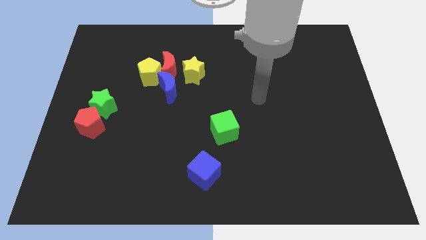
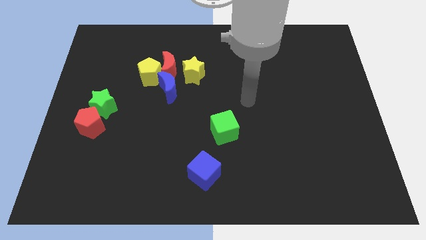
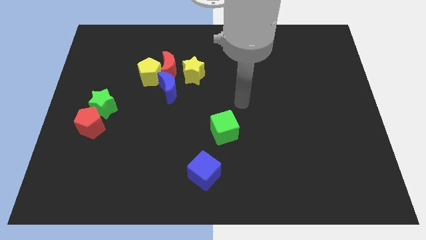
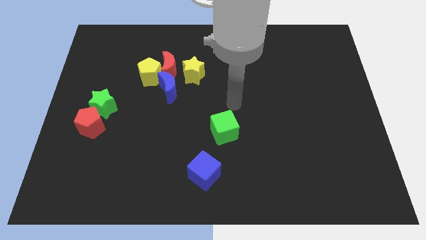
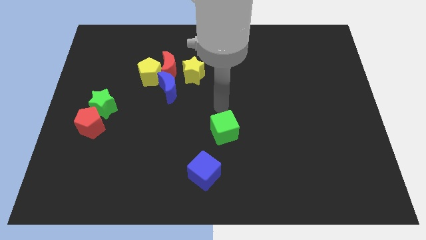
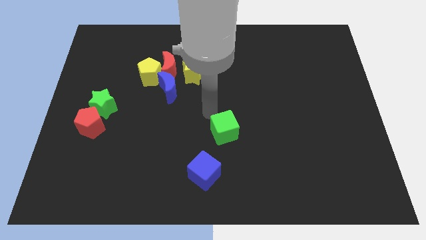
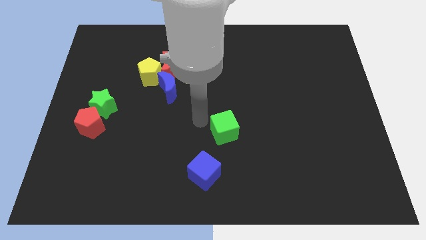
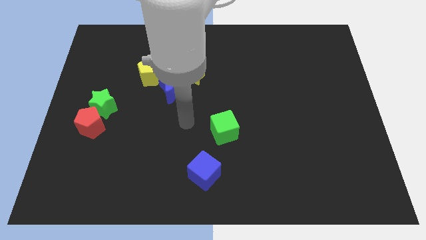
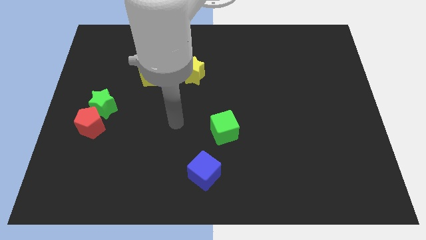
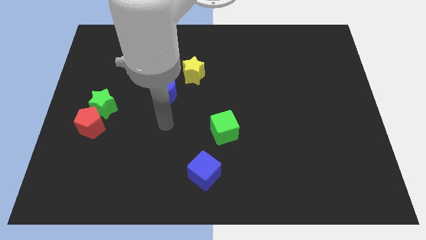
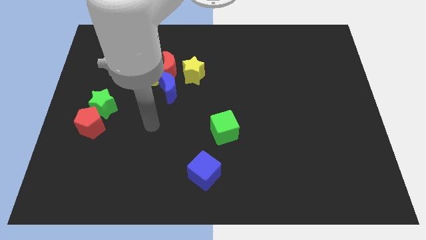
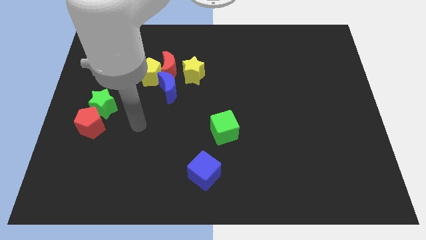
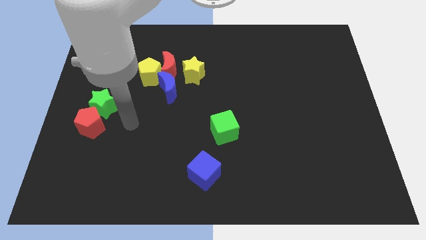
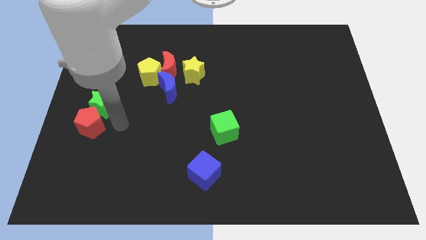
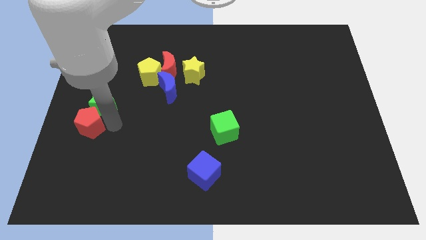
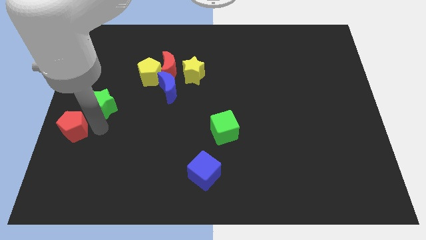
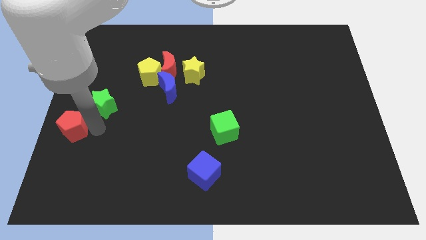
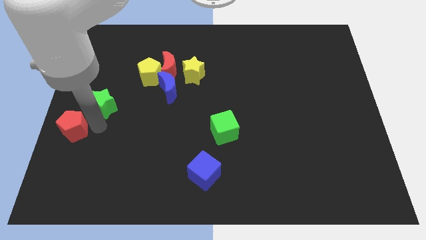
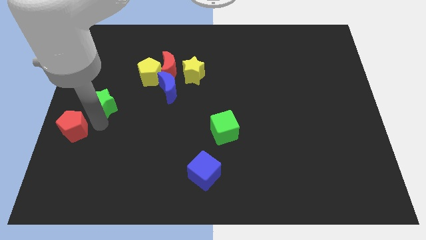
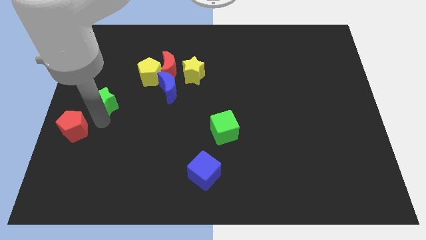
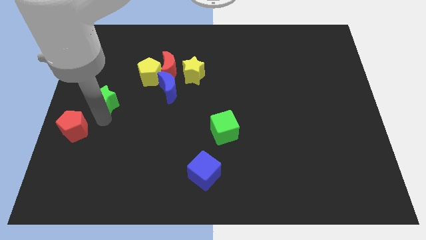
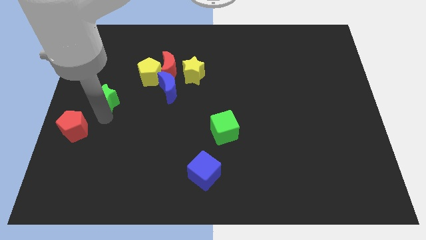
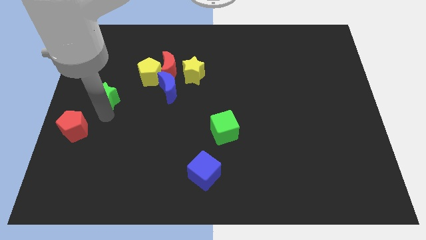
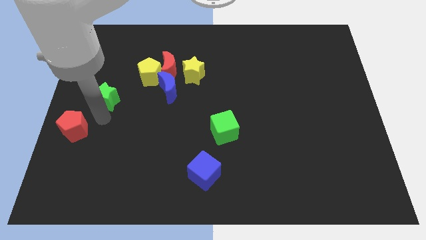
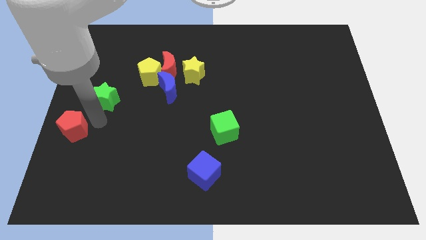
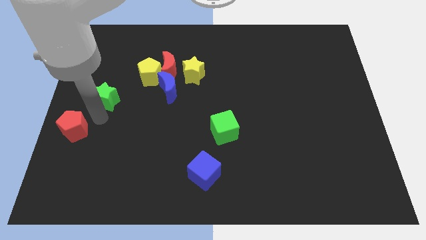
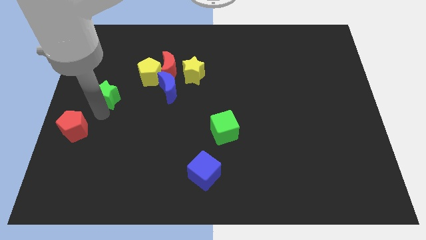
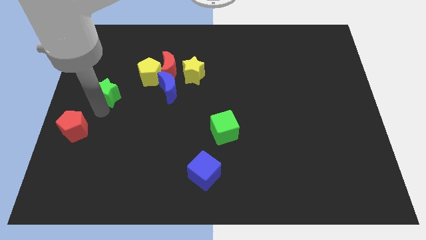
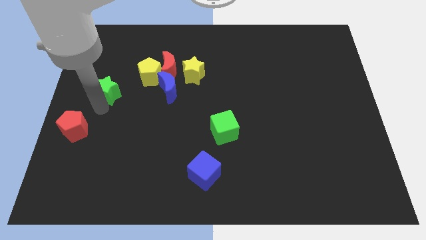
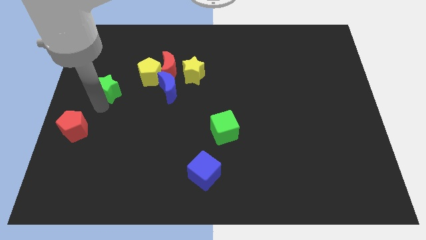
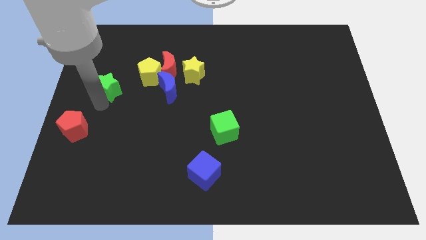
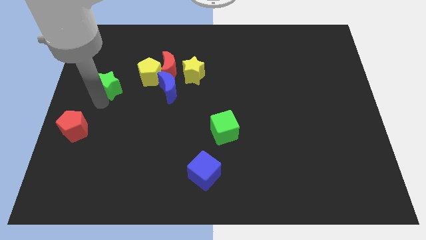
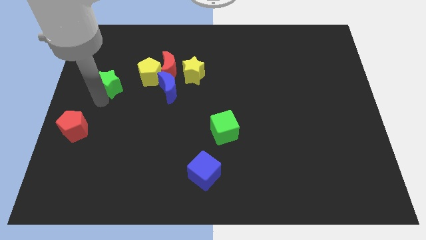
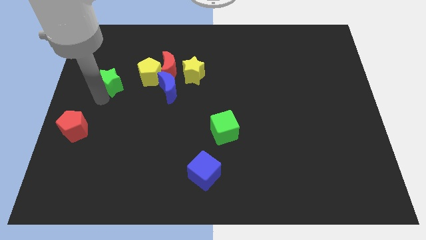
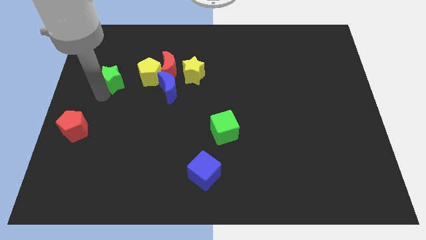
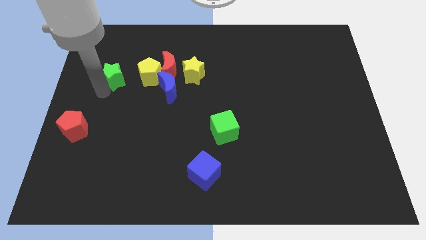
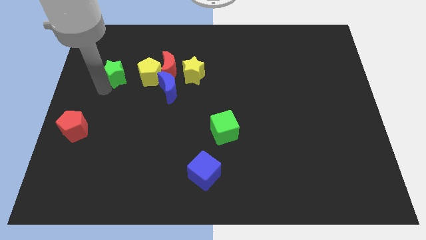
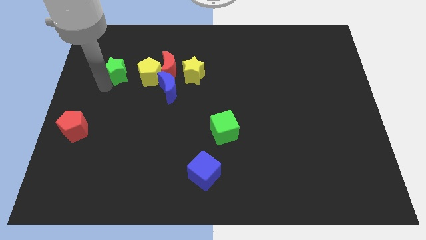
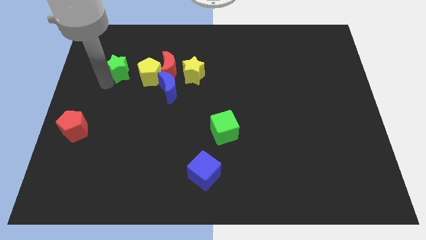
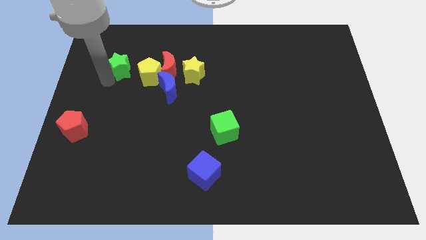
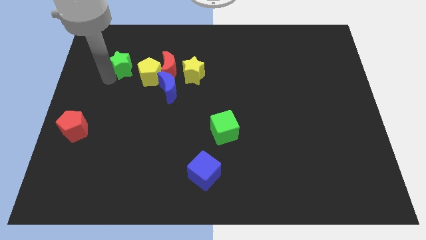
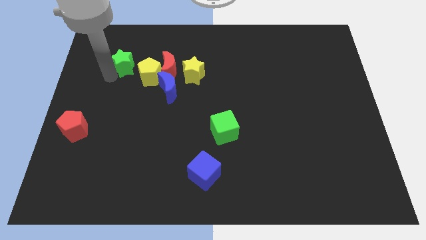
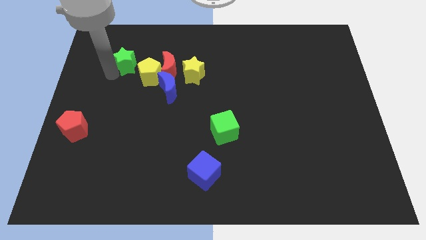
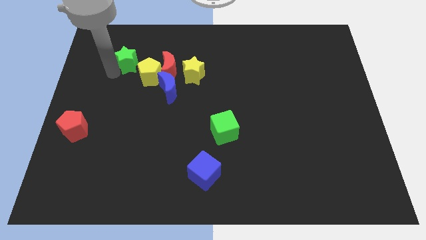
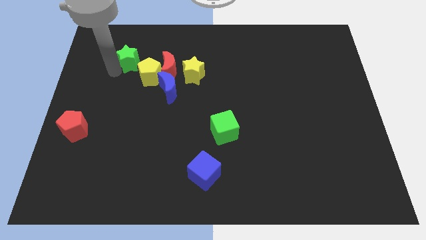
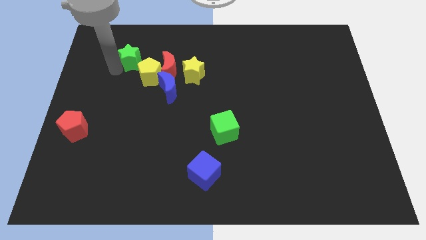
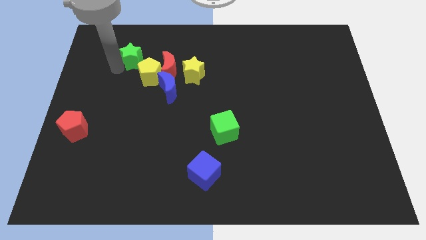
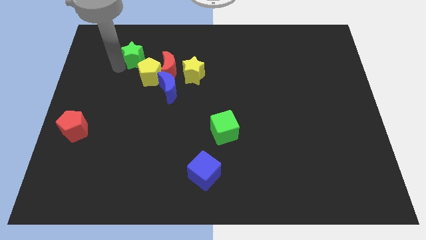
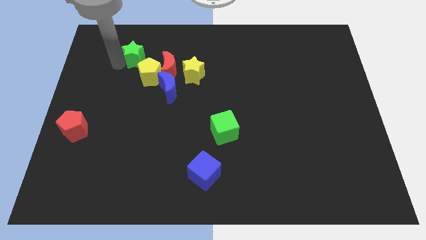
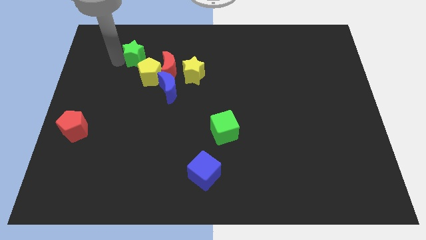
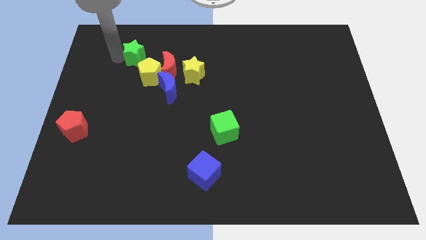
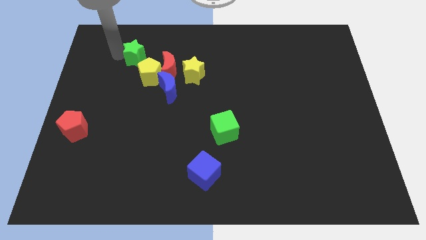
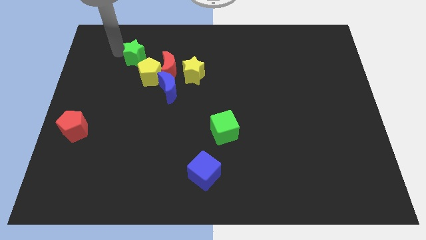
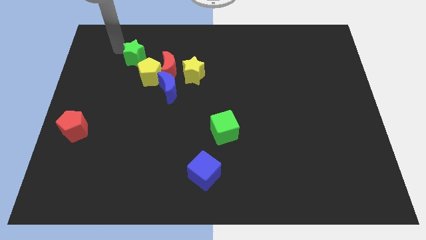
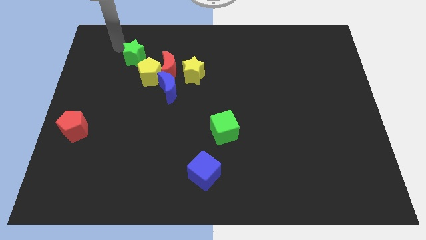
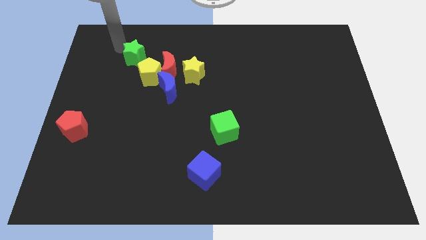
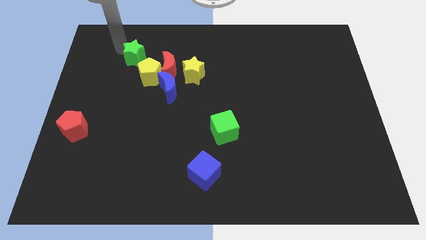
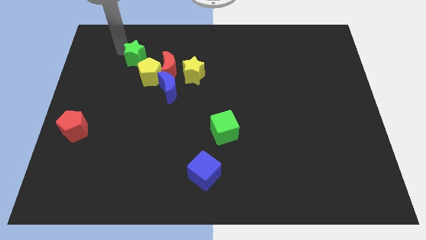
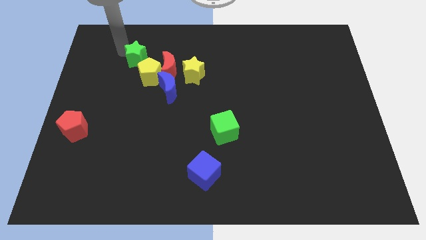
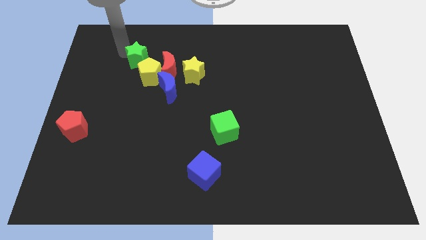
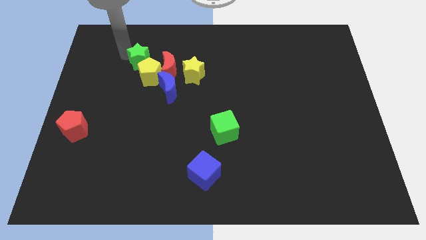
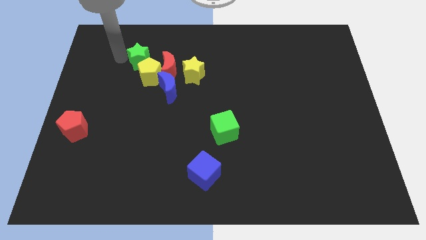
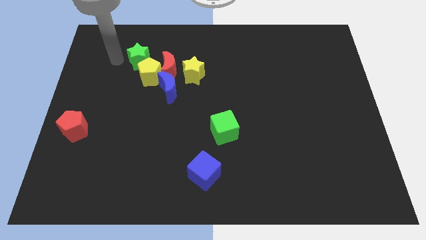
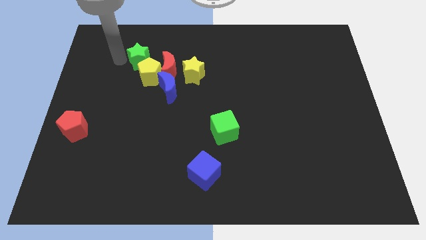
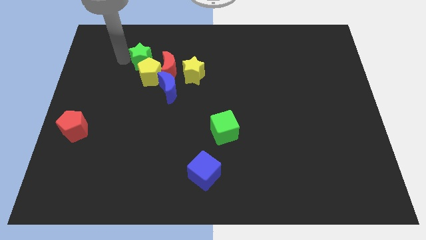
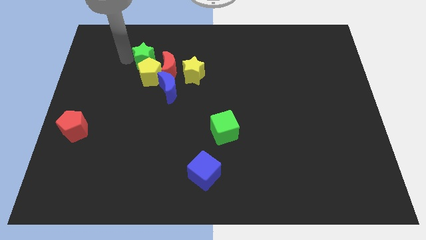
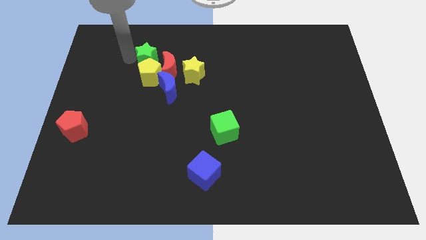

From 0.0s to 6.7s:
push the green star to the top right of the yellow pentagon
